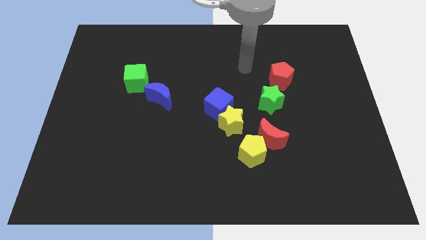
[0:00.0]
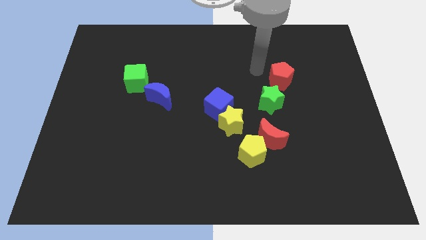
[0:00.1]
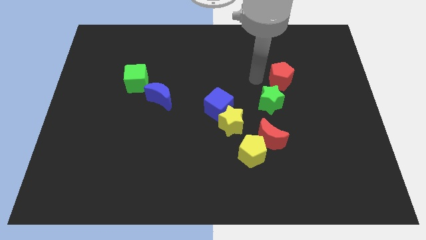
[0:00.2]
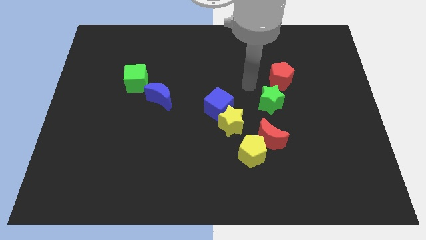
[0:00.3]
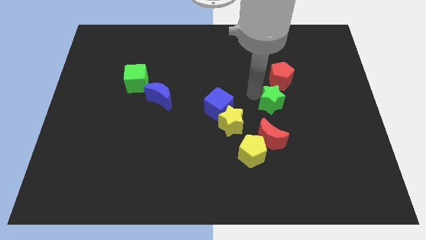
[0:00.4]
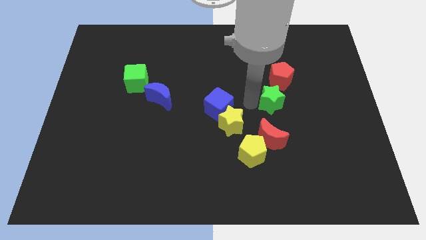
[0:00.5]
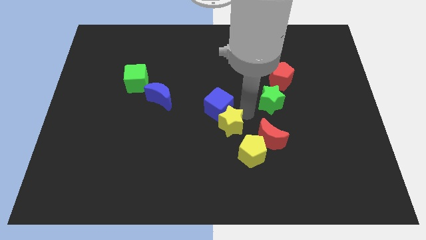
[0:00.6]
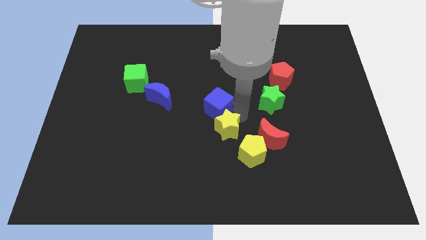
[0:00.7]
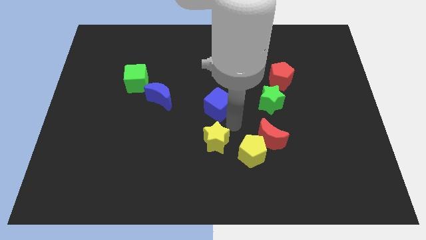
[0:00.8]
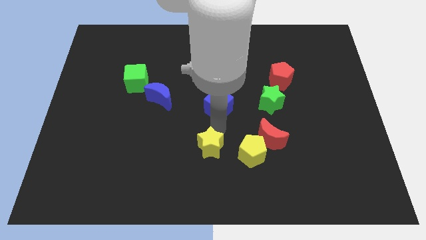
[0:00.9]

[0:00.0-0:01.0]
move the blue cube away from the yellow star

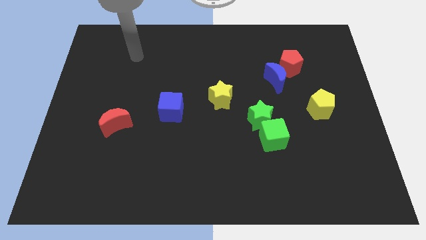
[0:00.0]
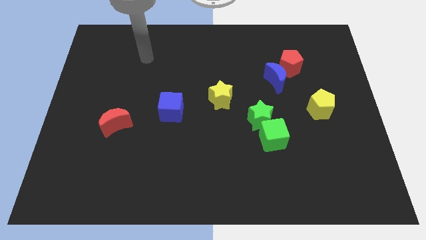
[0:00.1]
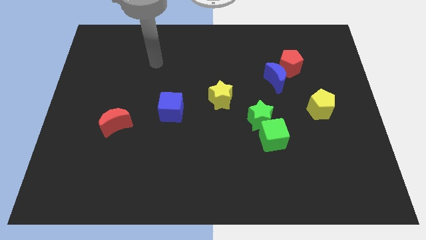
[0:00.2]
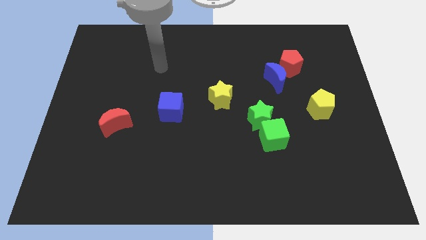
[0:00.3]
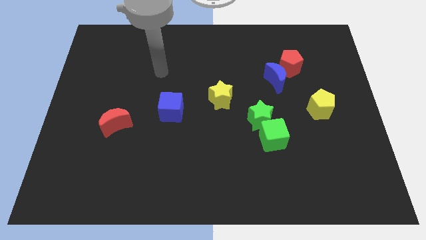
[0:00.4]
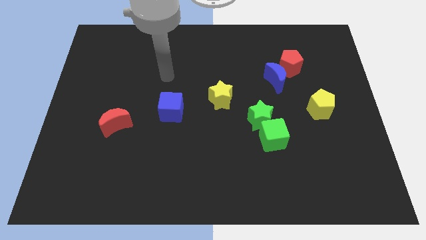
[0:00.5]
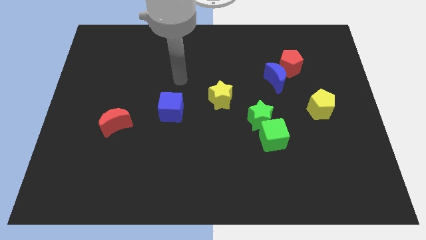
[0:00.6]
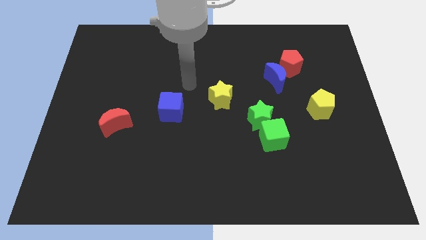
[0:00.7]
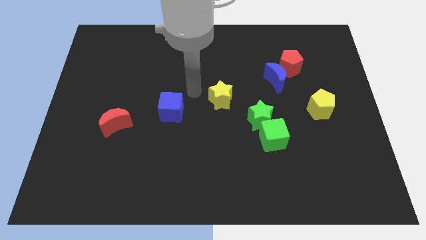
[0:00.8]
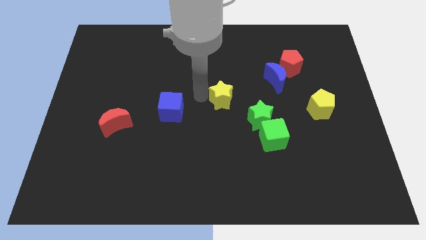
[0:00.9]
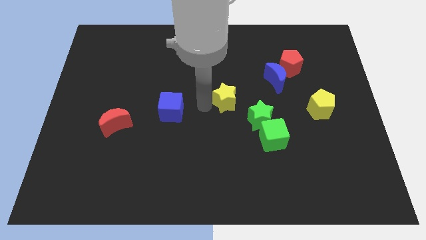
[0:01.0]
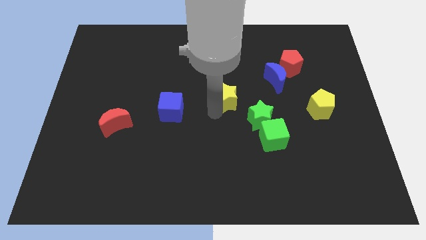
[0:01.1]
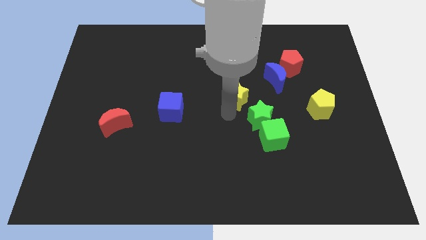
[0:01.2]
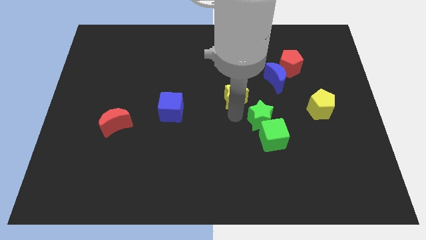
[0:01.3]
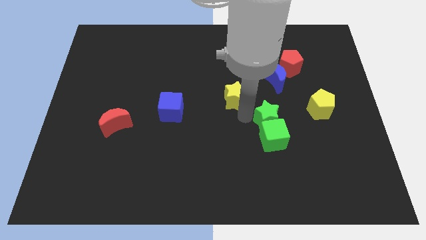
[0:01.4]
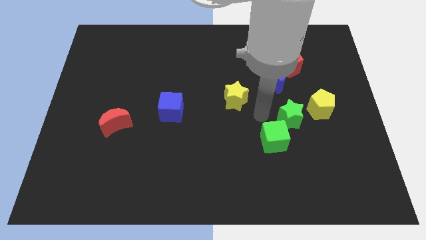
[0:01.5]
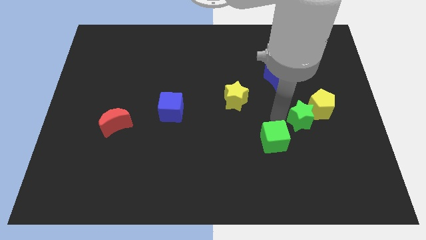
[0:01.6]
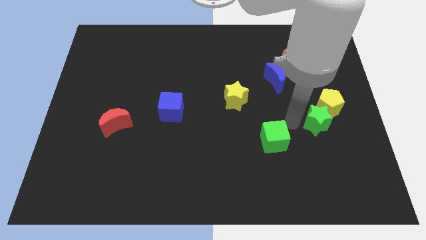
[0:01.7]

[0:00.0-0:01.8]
separate the green cube from the green star

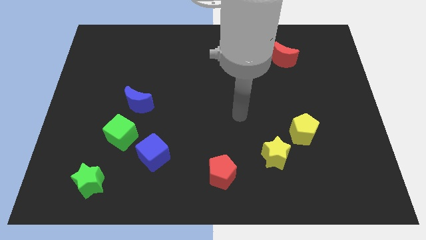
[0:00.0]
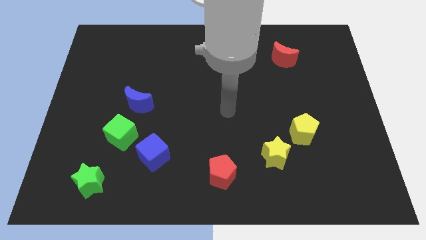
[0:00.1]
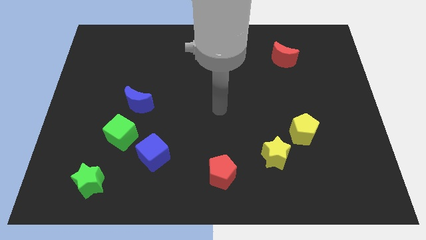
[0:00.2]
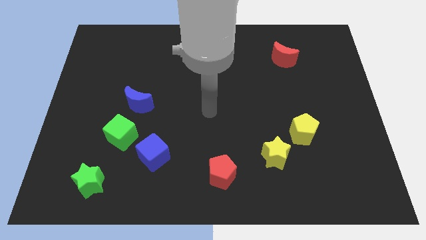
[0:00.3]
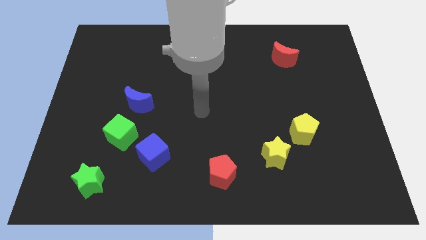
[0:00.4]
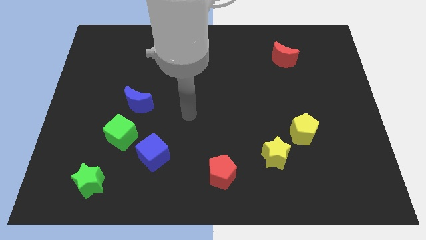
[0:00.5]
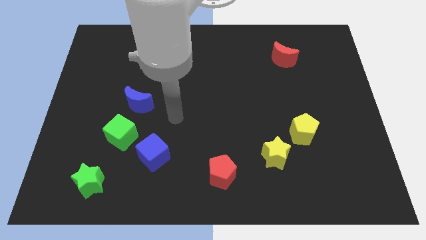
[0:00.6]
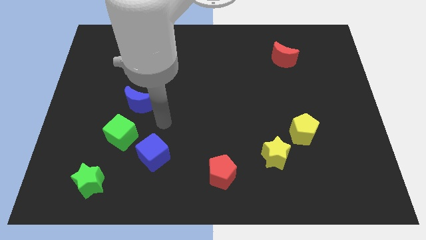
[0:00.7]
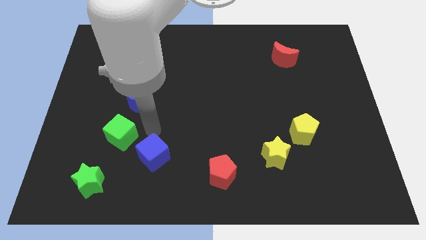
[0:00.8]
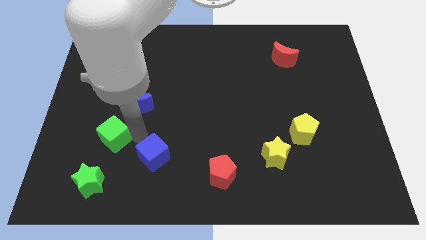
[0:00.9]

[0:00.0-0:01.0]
separate the blue cube from the green cube

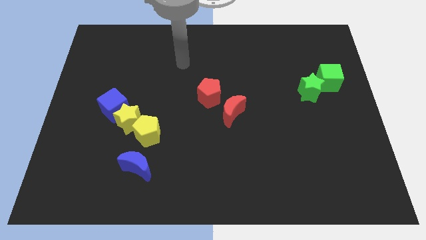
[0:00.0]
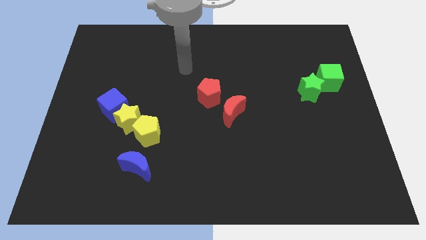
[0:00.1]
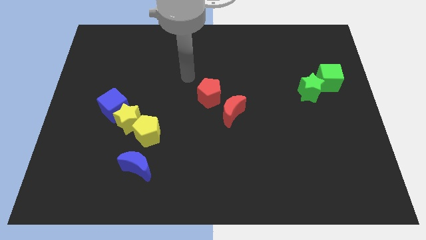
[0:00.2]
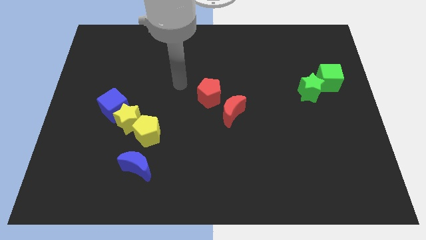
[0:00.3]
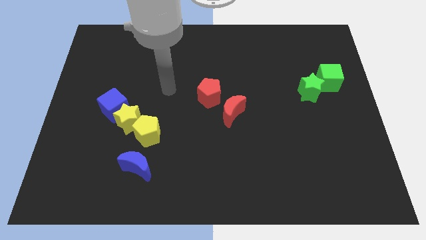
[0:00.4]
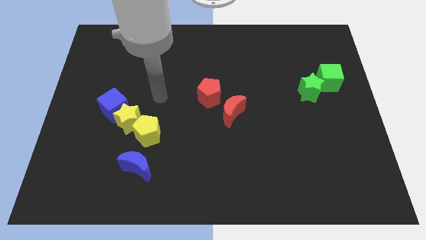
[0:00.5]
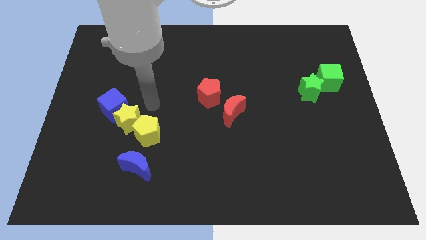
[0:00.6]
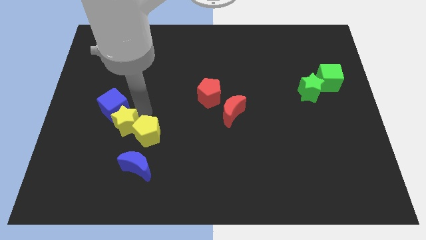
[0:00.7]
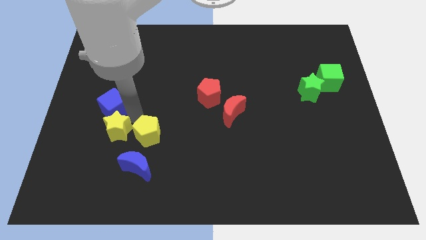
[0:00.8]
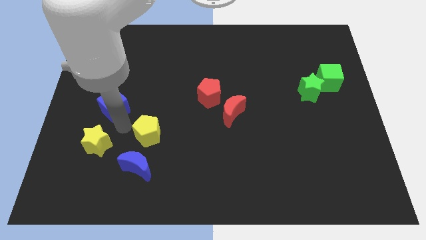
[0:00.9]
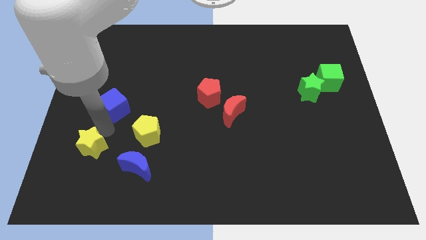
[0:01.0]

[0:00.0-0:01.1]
pull the blue cube apart from the yellow star

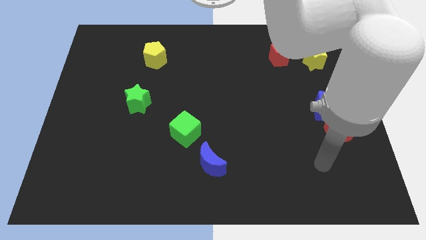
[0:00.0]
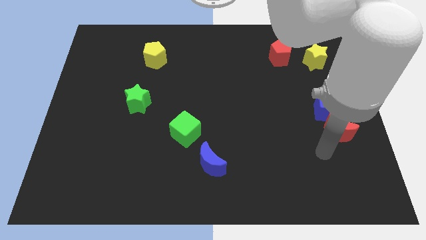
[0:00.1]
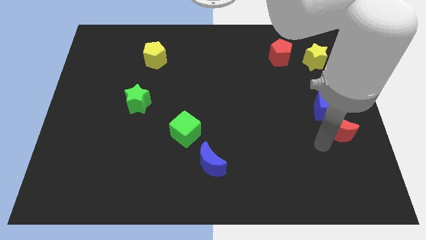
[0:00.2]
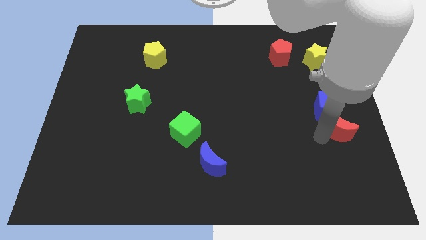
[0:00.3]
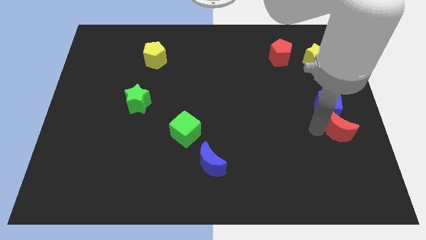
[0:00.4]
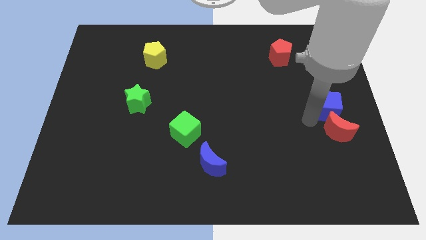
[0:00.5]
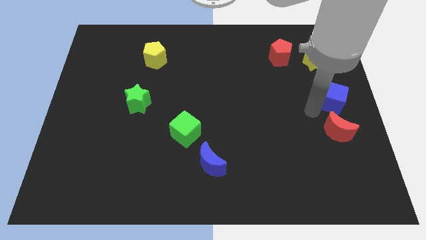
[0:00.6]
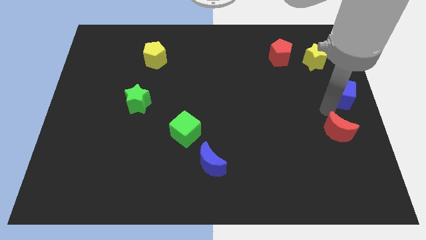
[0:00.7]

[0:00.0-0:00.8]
pull the red moon apart from the blue cube

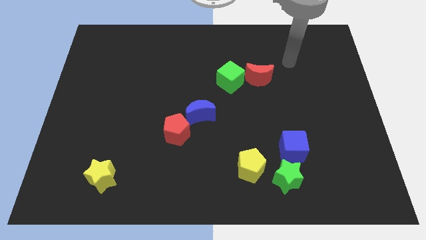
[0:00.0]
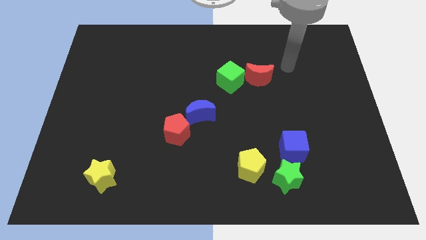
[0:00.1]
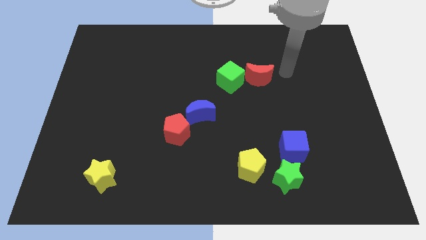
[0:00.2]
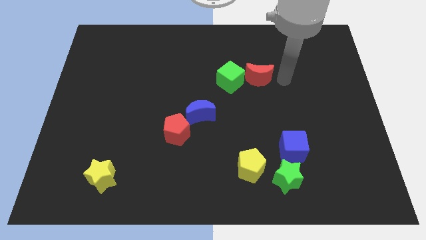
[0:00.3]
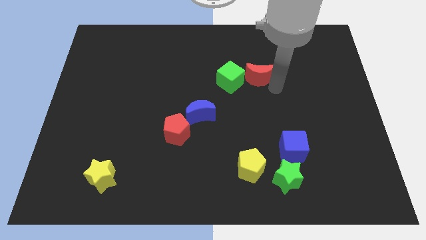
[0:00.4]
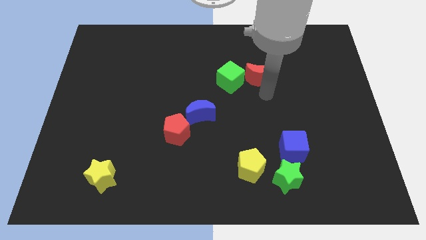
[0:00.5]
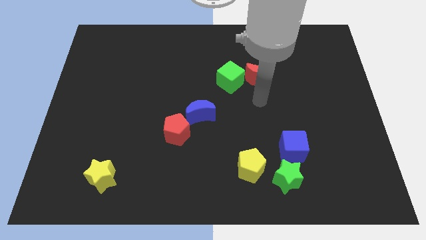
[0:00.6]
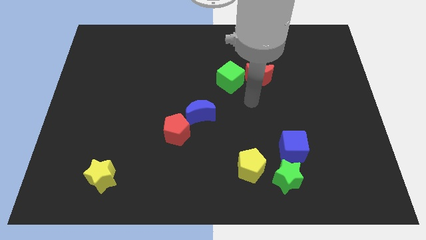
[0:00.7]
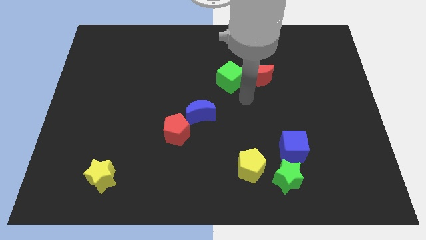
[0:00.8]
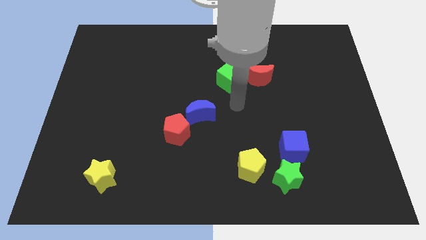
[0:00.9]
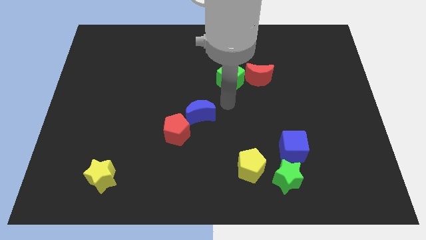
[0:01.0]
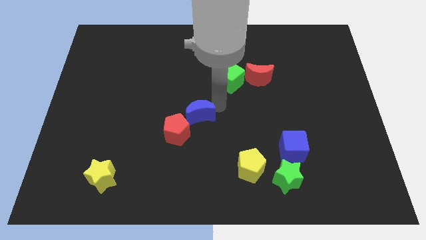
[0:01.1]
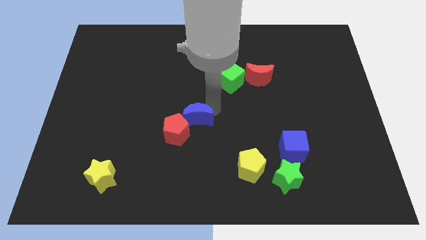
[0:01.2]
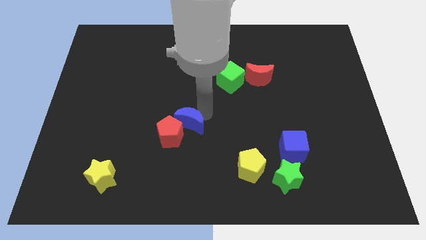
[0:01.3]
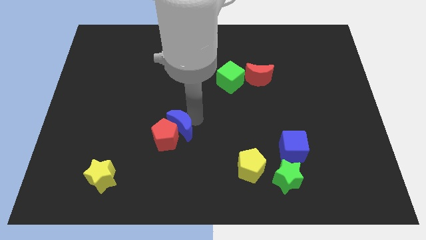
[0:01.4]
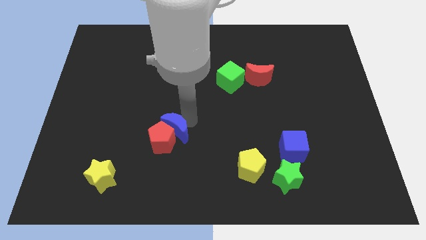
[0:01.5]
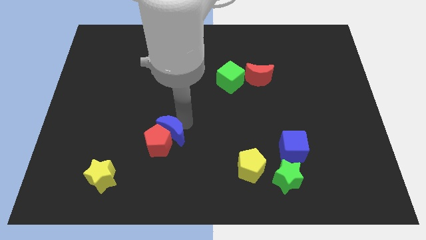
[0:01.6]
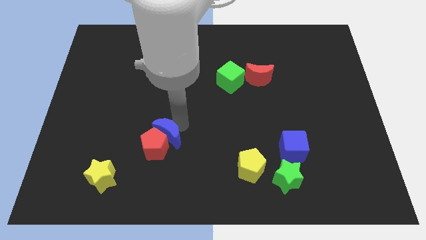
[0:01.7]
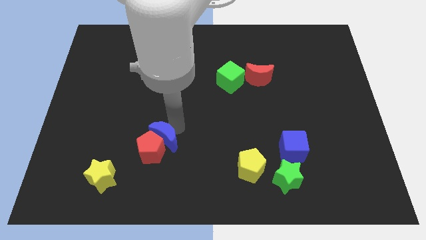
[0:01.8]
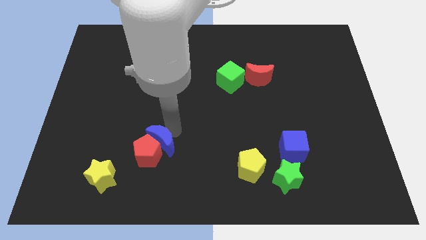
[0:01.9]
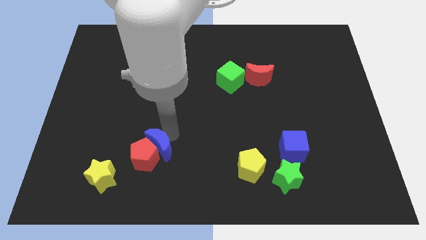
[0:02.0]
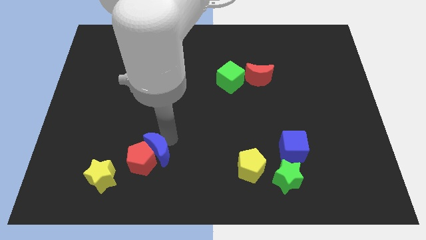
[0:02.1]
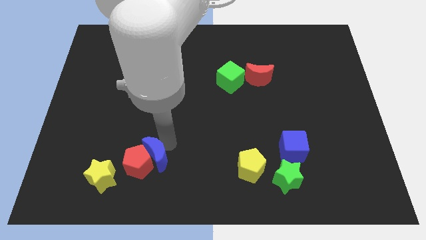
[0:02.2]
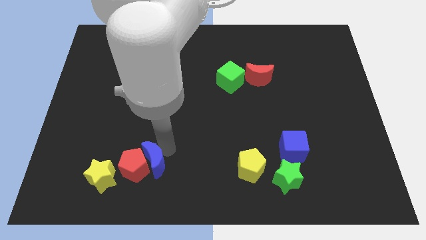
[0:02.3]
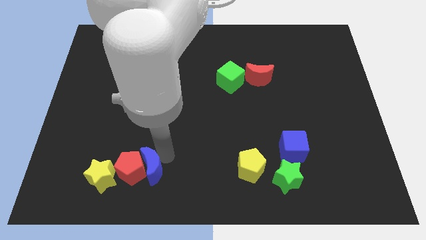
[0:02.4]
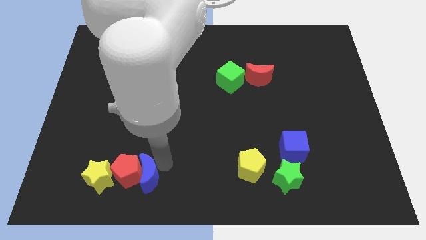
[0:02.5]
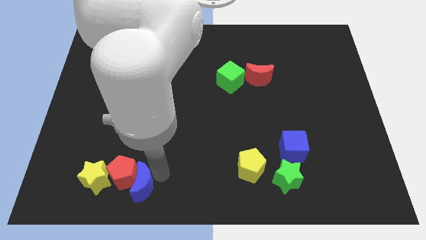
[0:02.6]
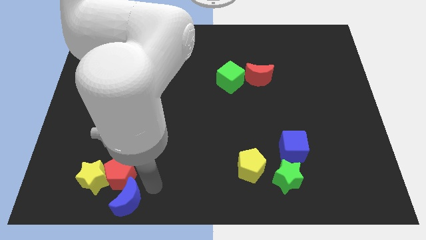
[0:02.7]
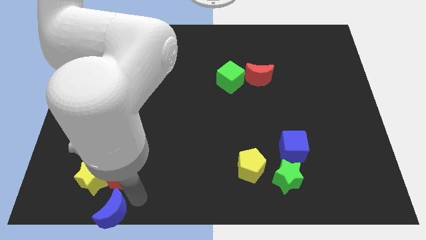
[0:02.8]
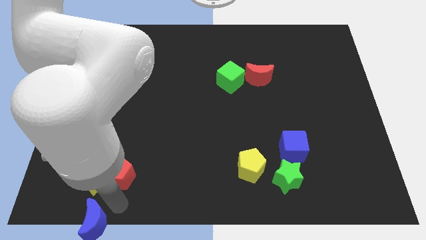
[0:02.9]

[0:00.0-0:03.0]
move the red pentagon away from the blue moon

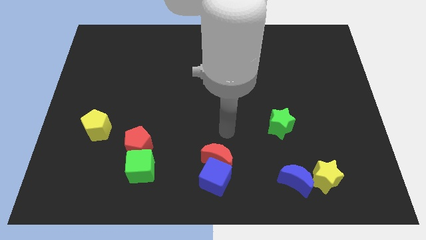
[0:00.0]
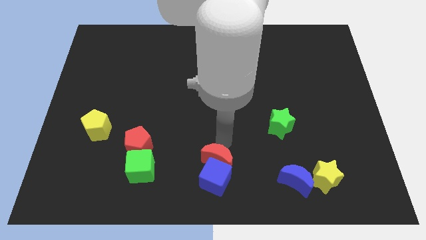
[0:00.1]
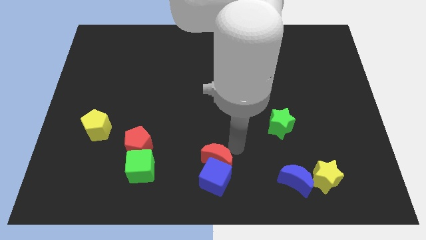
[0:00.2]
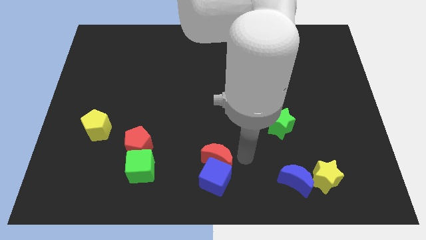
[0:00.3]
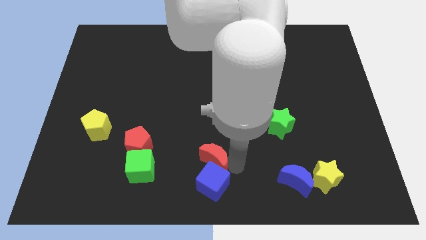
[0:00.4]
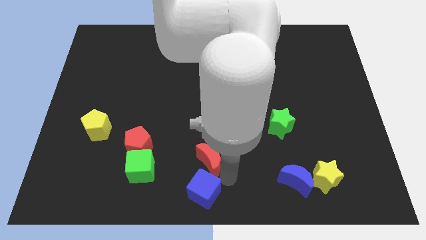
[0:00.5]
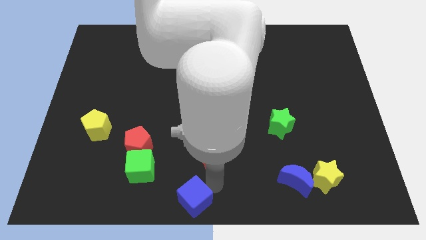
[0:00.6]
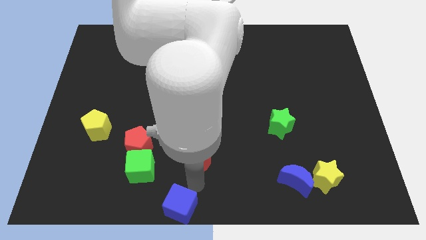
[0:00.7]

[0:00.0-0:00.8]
separate the red moon from the blue cube
